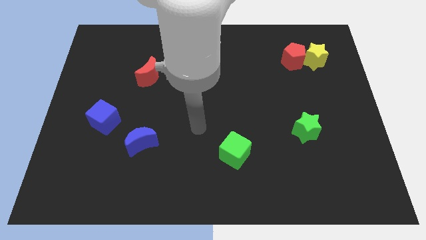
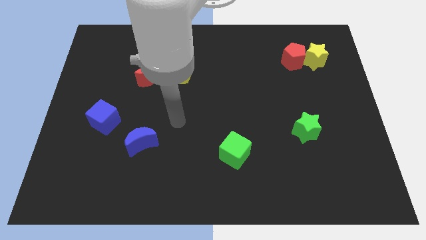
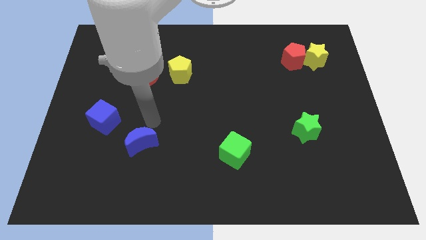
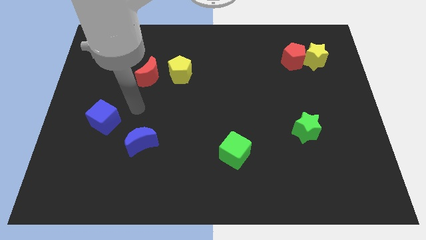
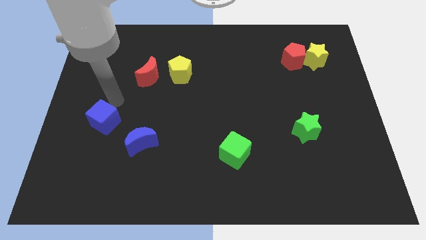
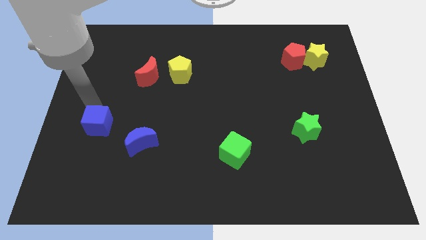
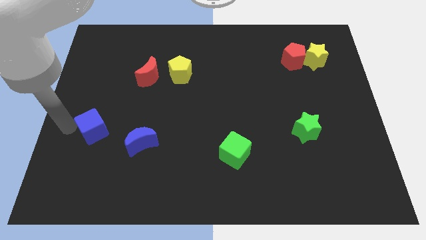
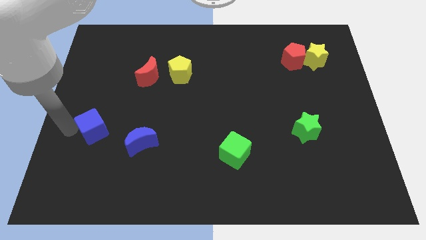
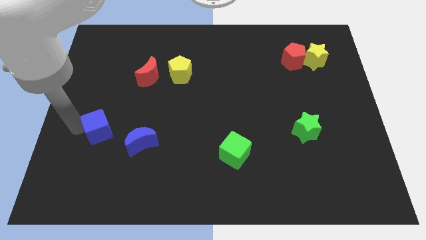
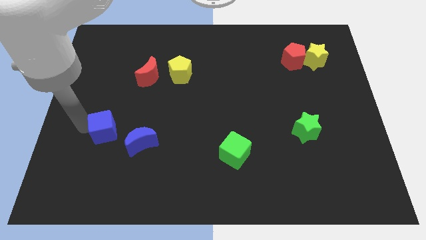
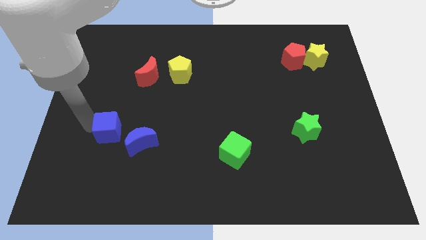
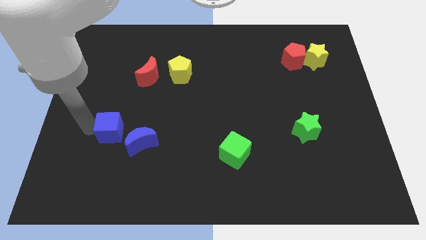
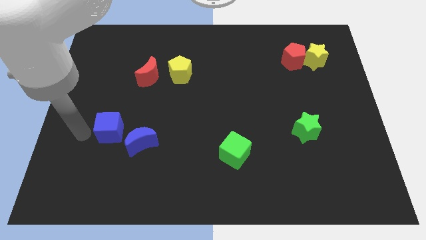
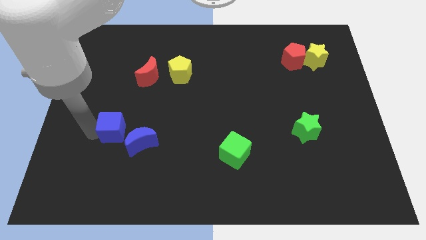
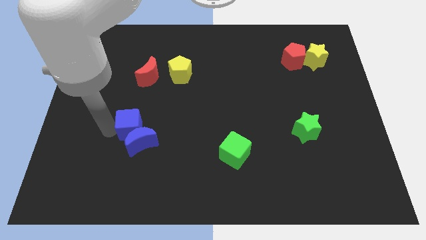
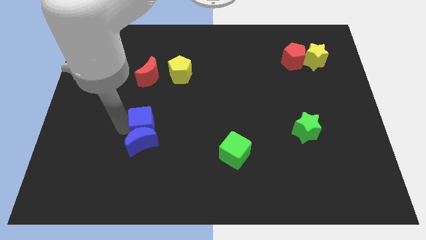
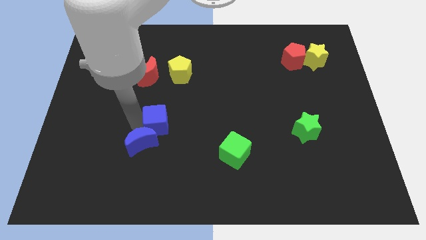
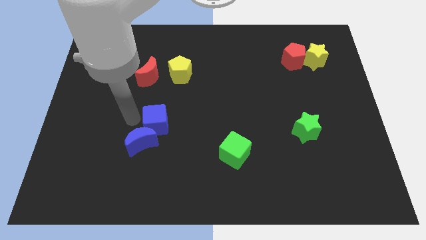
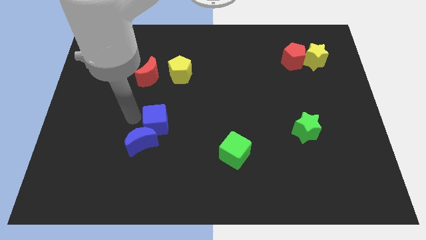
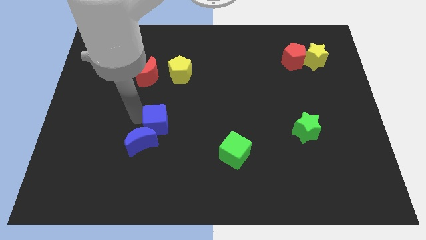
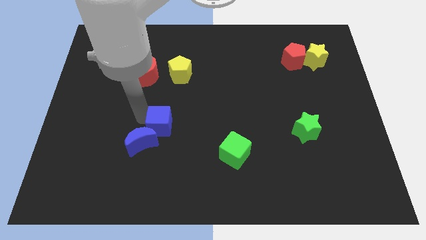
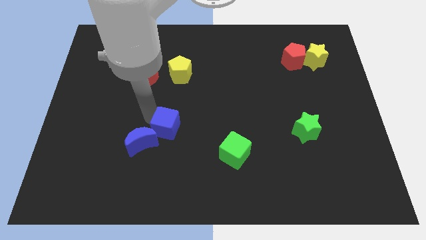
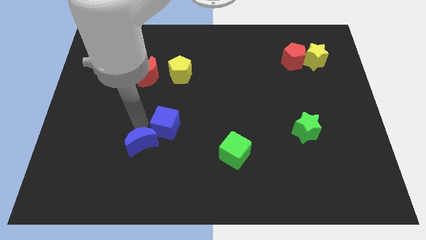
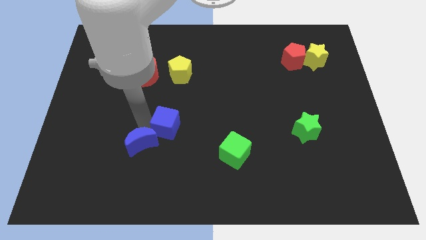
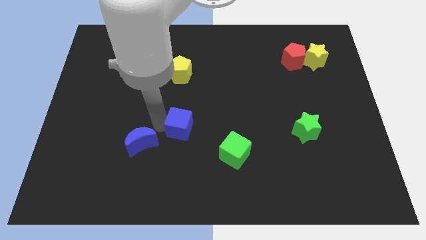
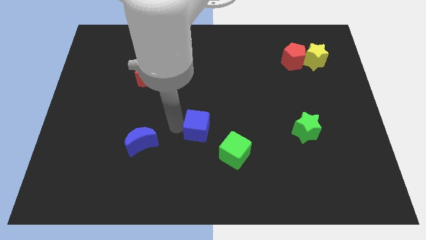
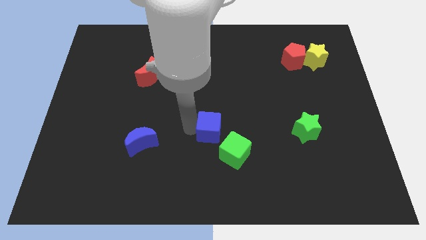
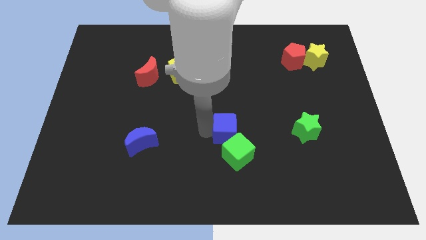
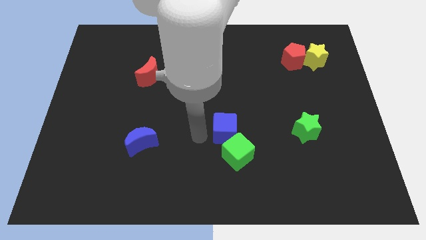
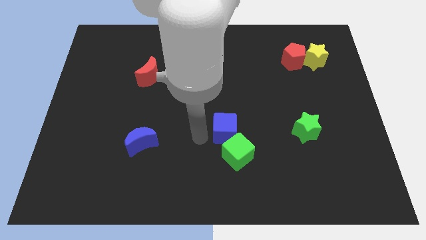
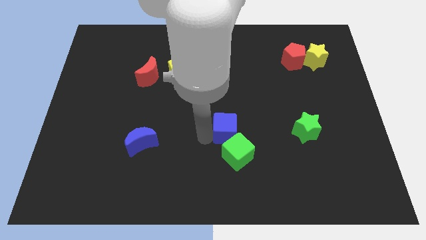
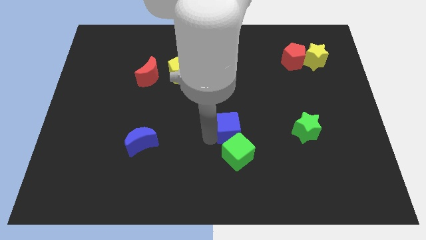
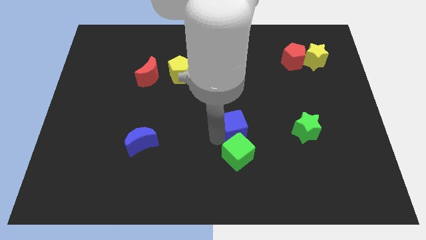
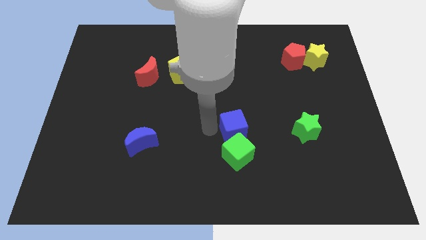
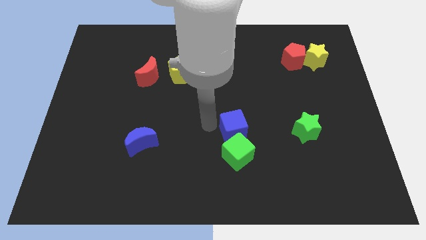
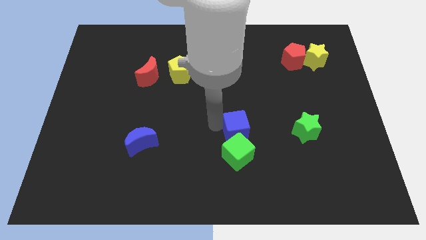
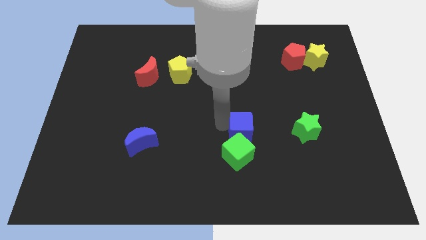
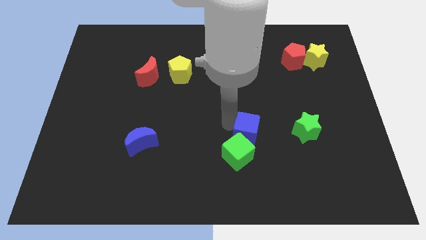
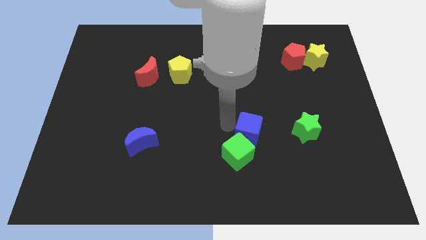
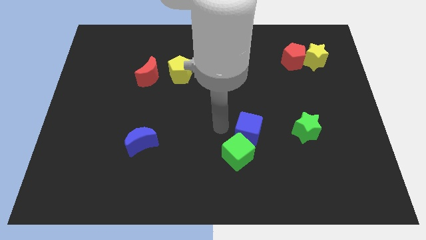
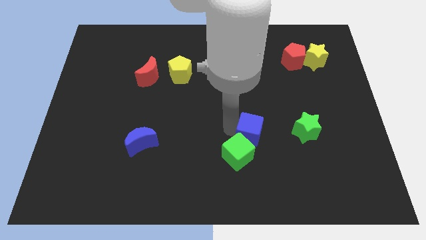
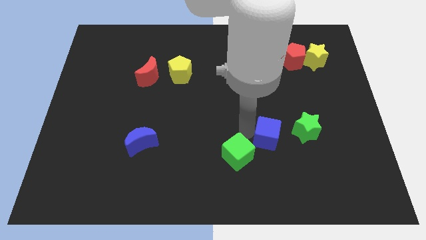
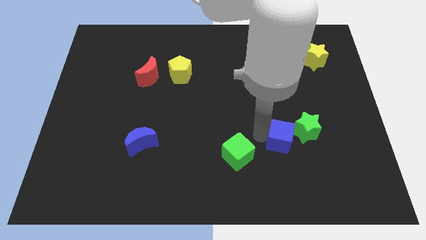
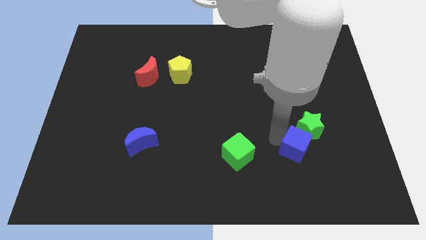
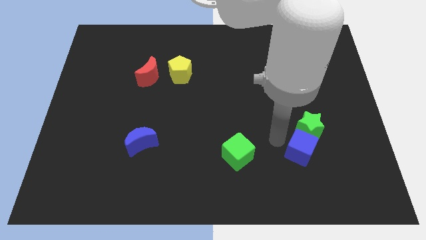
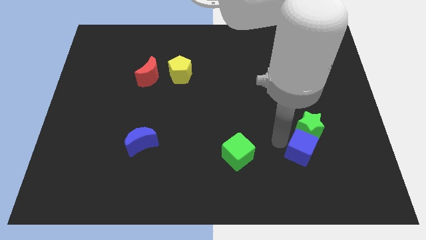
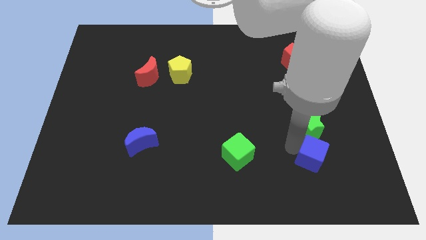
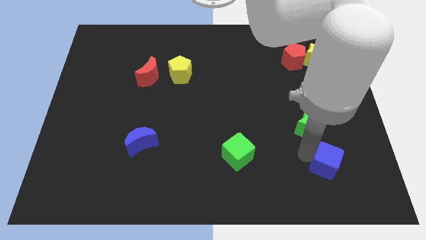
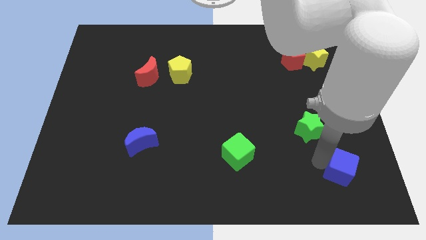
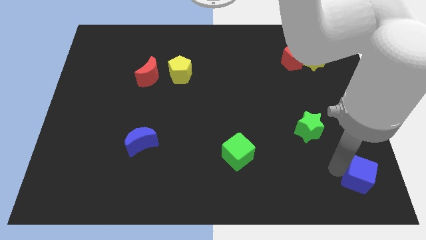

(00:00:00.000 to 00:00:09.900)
put the blue cube to the lower right corner

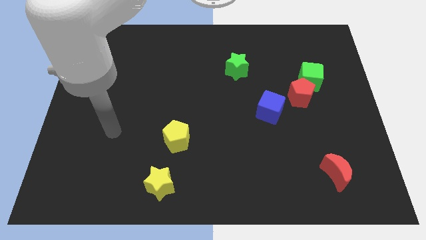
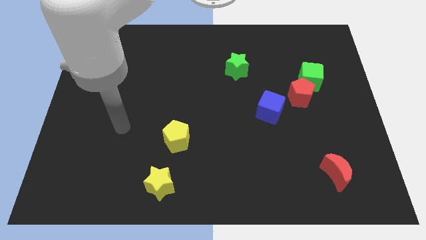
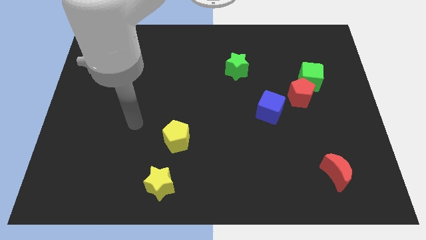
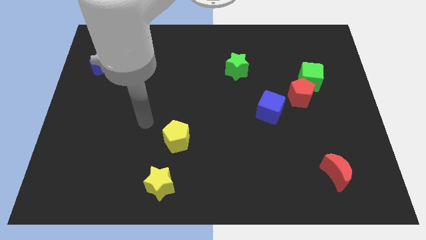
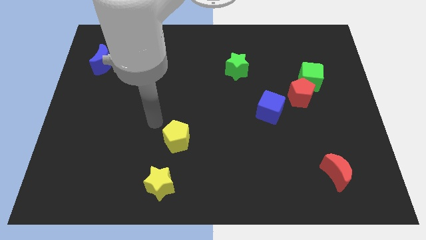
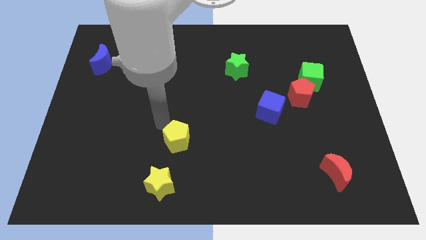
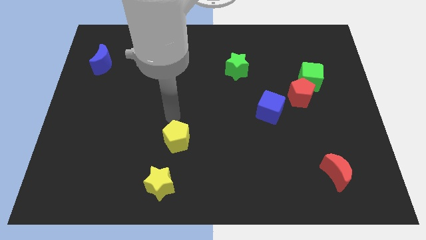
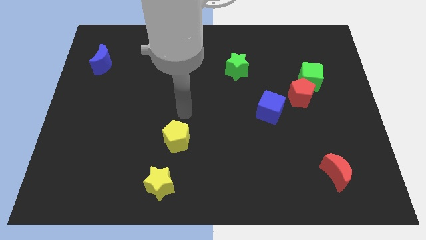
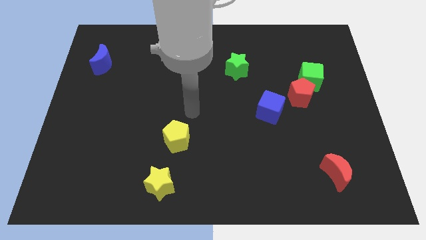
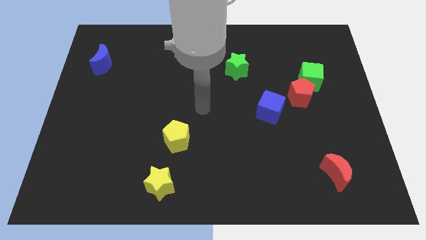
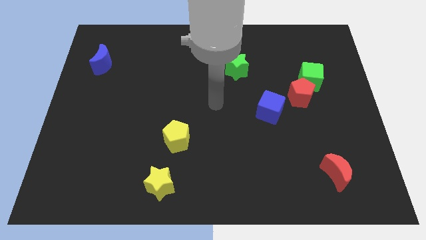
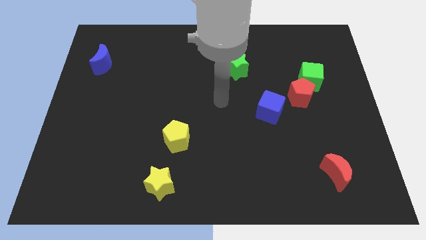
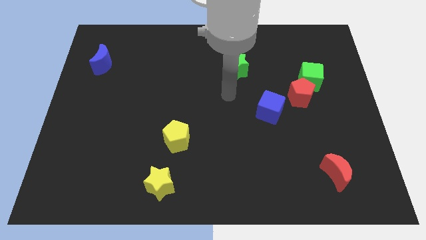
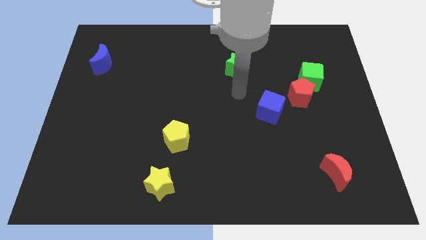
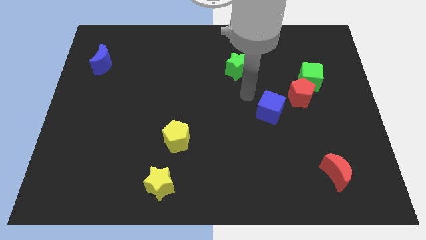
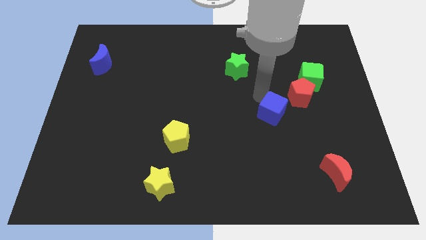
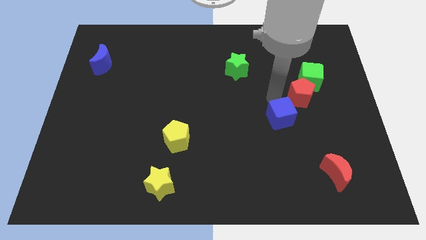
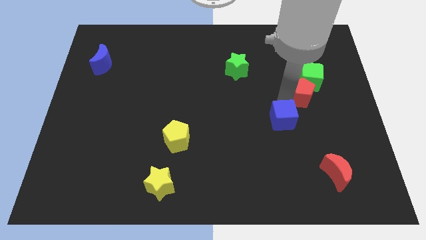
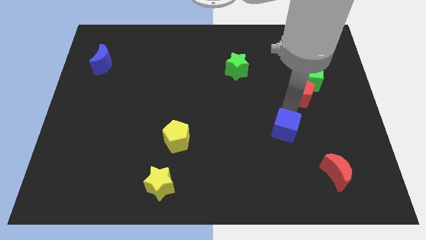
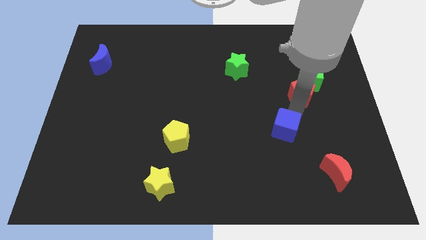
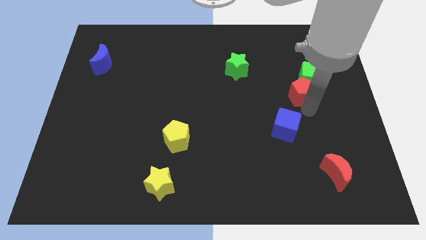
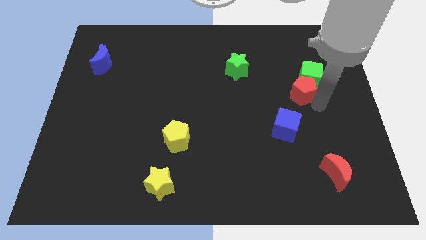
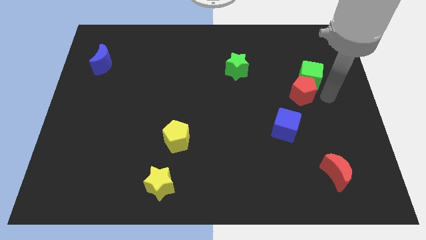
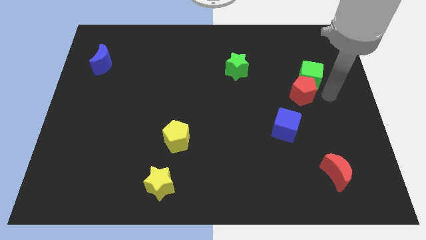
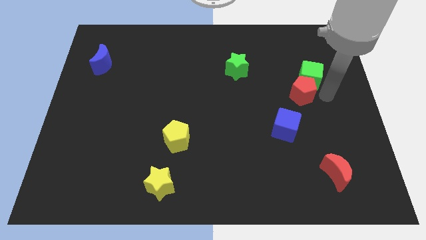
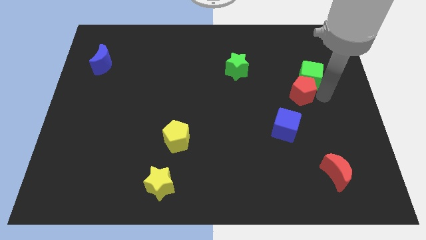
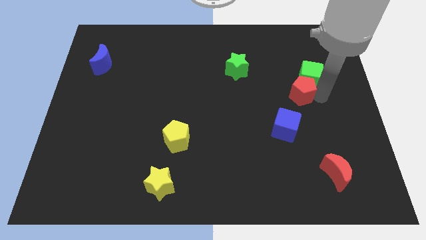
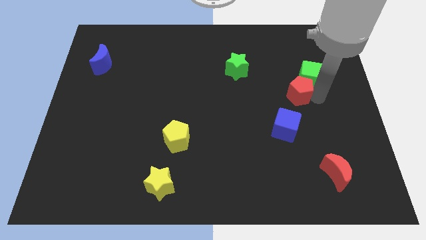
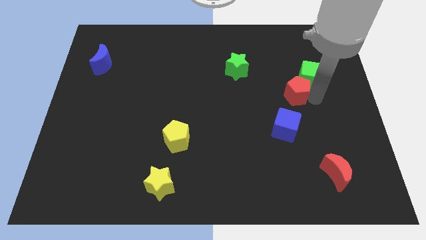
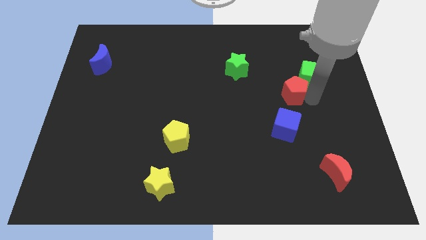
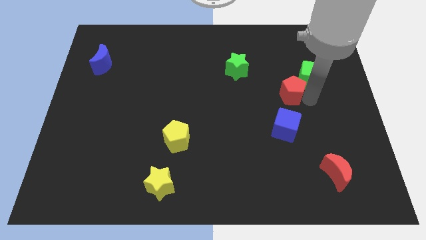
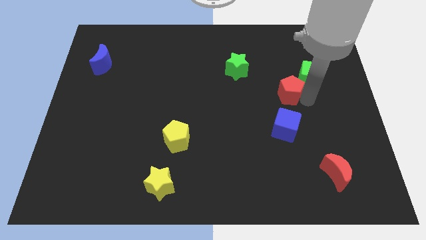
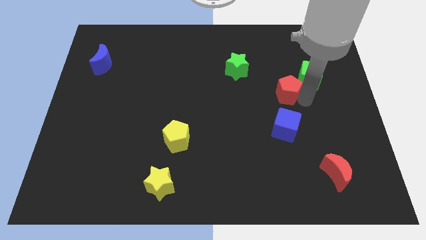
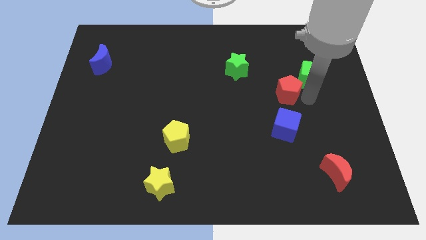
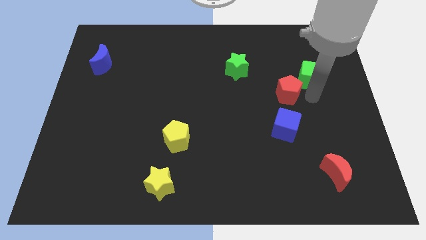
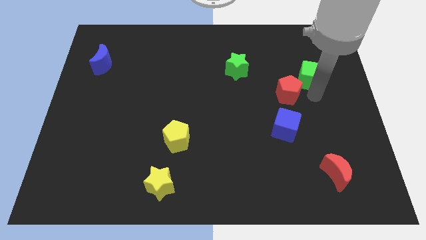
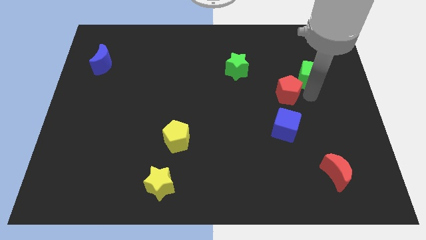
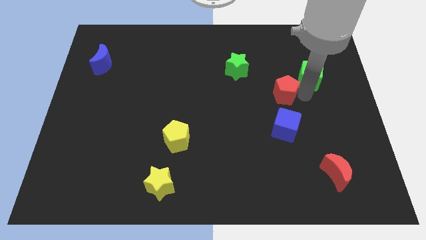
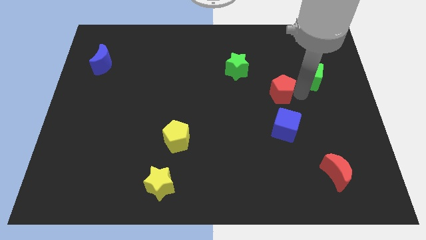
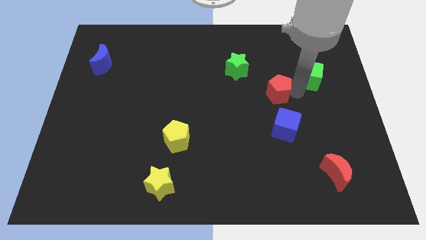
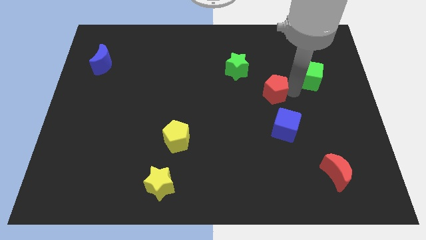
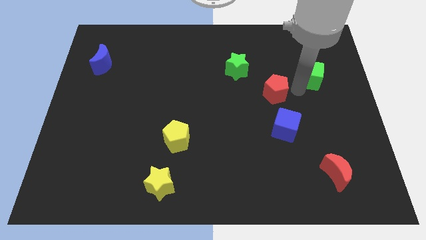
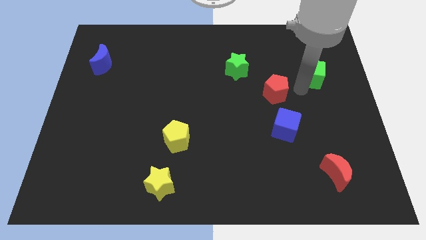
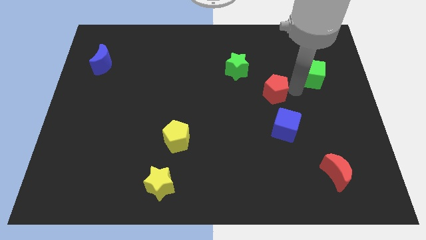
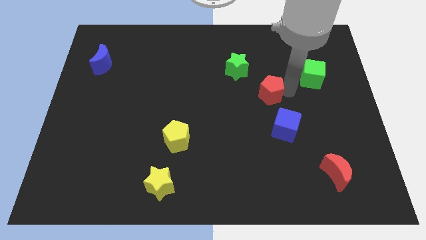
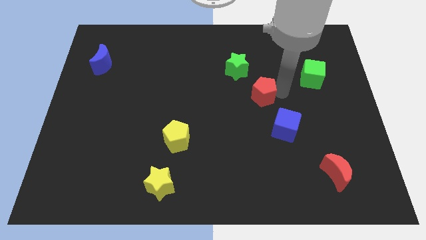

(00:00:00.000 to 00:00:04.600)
slide the red pentagon to the center of the board
